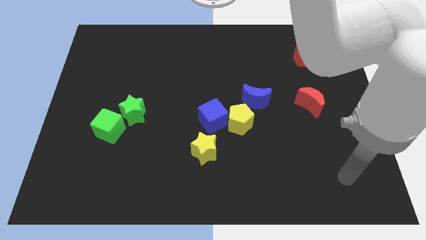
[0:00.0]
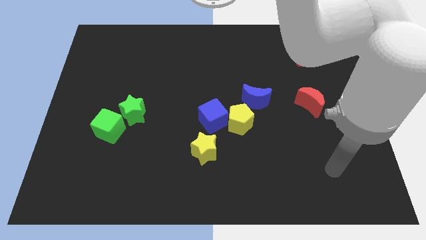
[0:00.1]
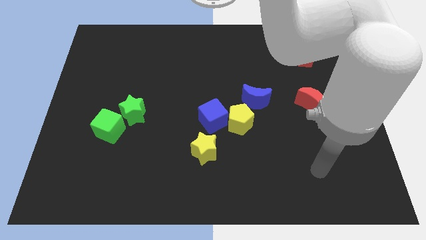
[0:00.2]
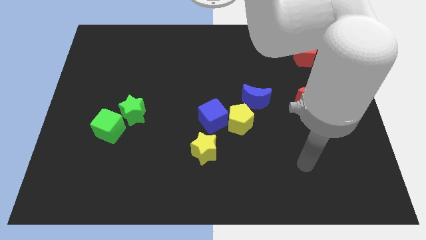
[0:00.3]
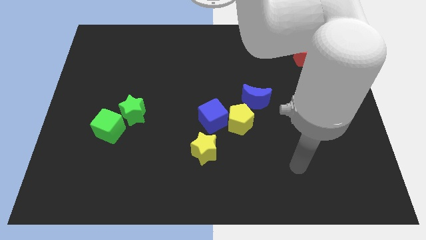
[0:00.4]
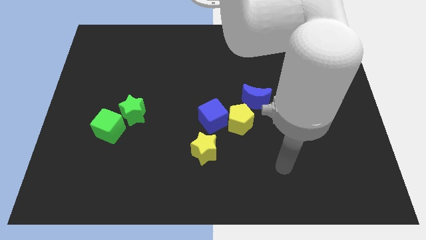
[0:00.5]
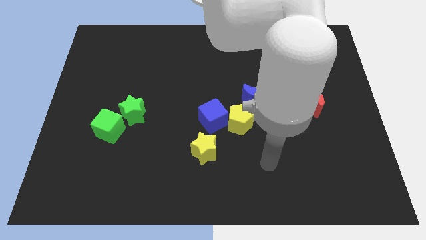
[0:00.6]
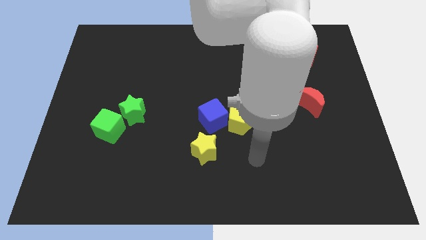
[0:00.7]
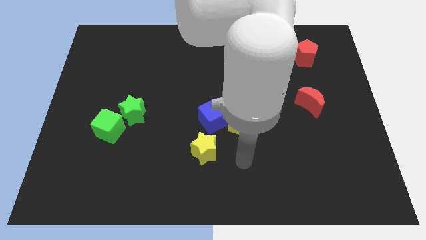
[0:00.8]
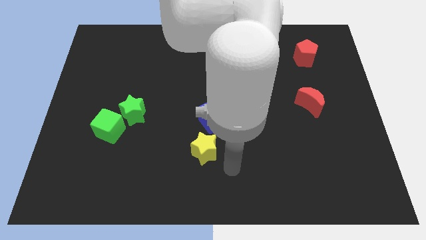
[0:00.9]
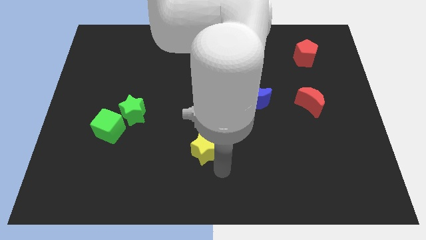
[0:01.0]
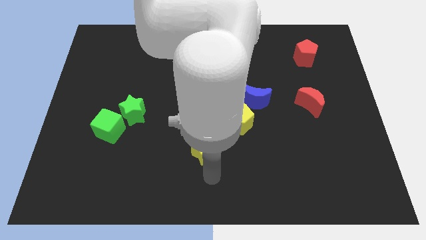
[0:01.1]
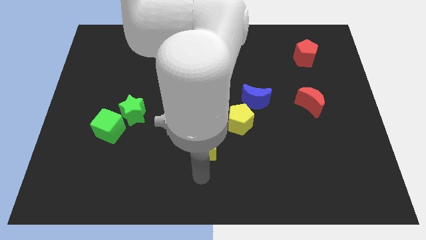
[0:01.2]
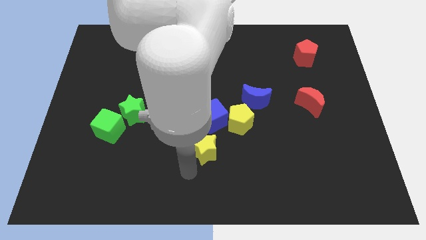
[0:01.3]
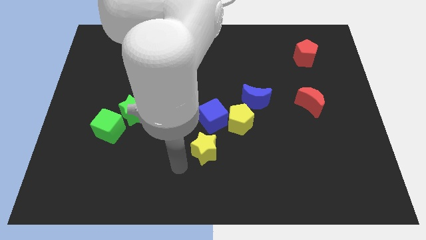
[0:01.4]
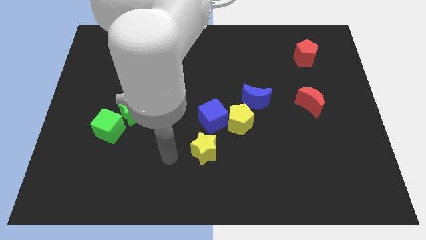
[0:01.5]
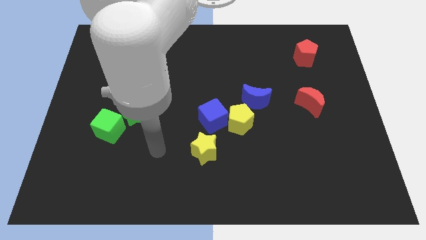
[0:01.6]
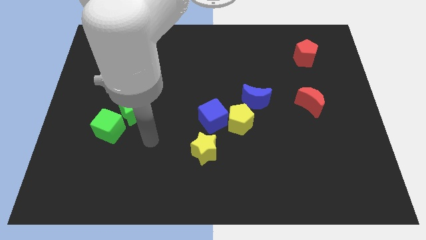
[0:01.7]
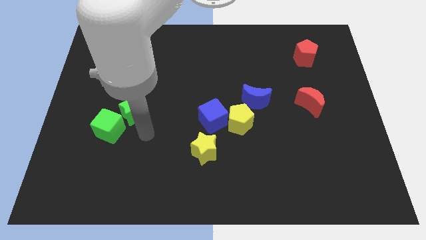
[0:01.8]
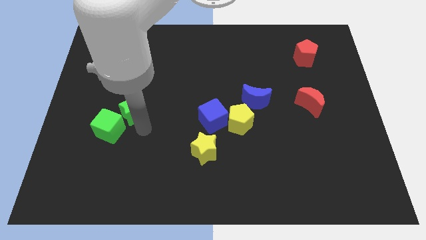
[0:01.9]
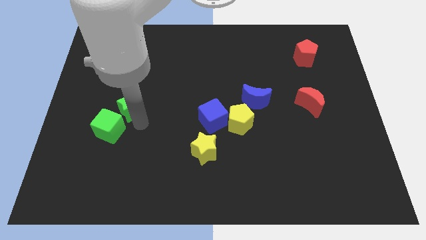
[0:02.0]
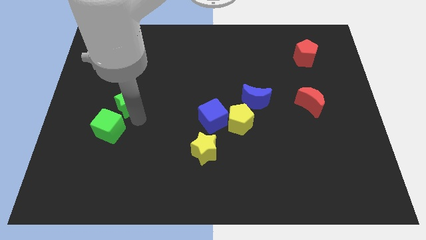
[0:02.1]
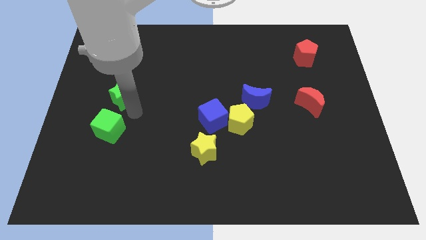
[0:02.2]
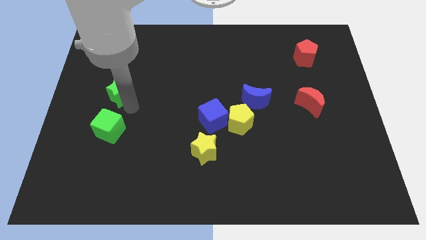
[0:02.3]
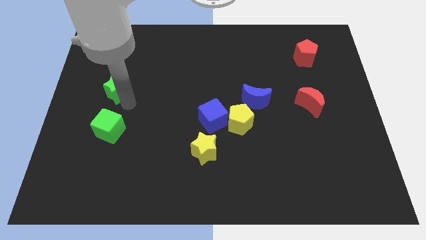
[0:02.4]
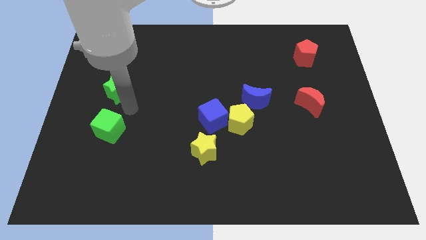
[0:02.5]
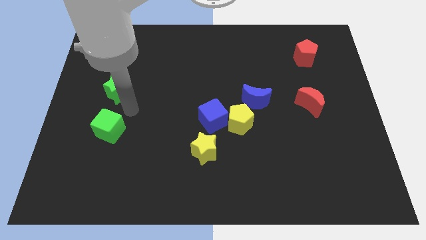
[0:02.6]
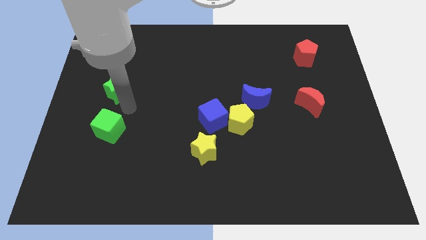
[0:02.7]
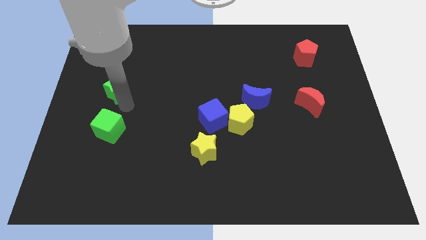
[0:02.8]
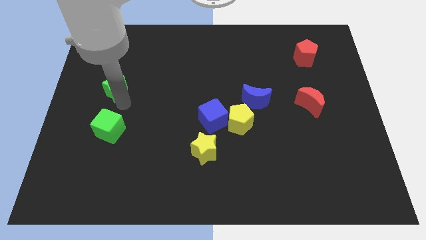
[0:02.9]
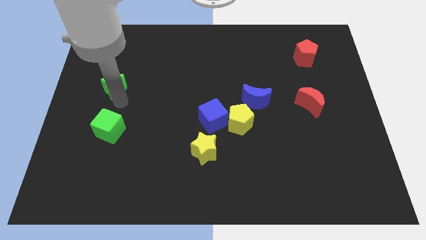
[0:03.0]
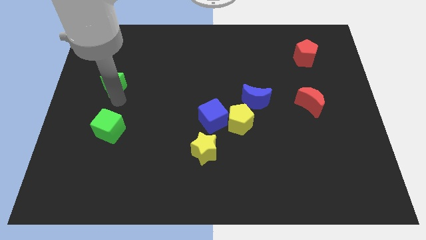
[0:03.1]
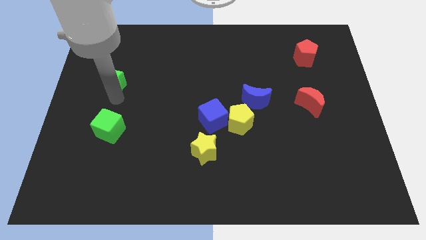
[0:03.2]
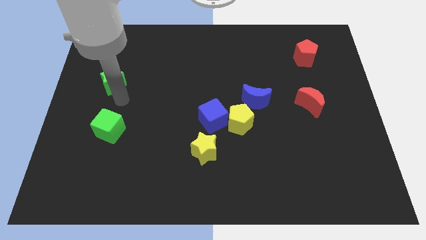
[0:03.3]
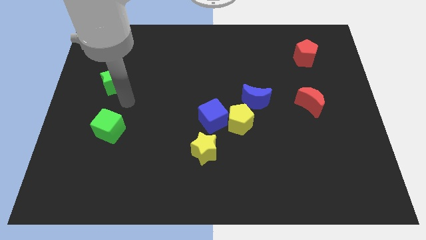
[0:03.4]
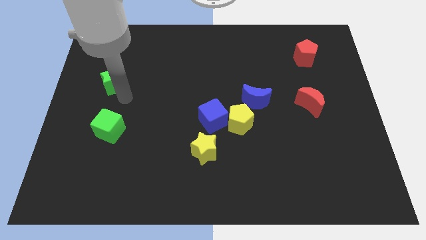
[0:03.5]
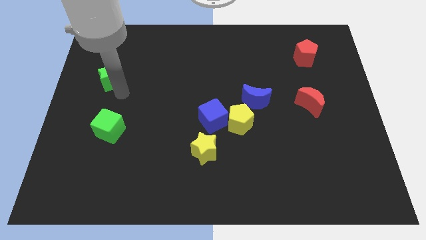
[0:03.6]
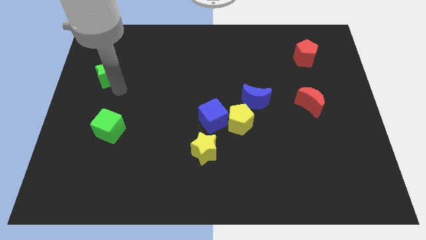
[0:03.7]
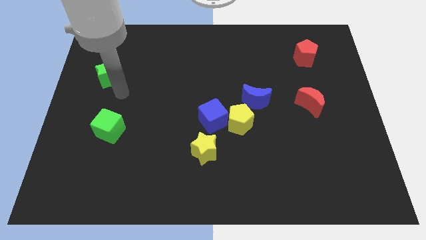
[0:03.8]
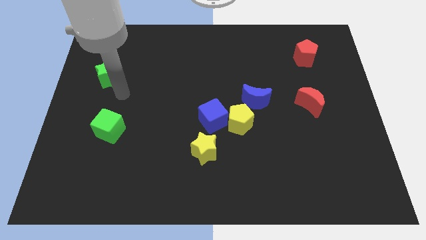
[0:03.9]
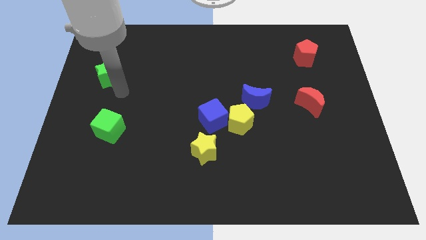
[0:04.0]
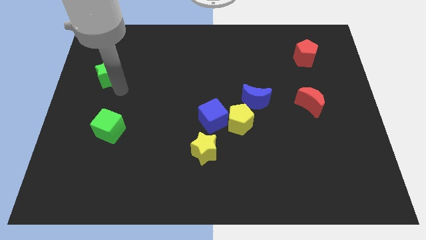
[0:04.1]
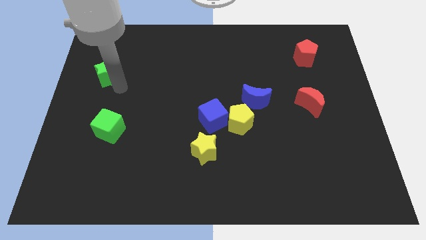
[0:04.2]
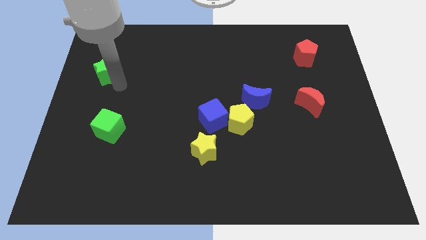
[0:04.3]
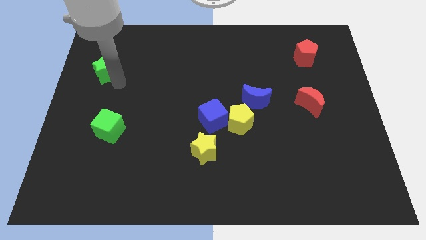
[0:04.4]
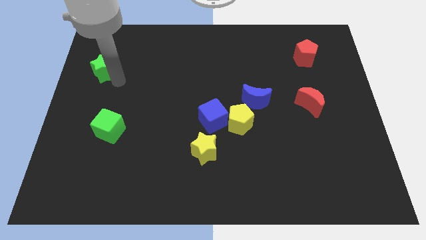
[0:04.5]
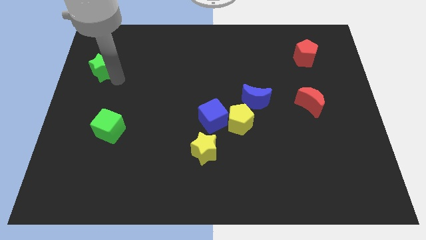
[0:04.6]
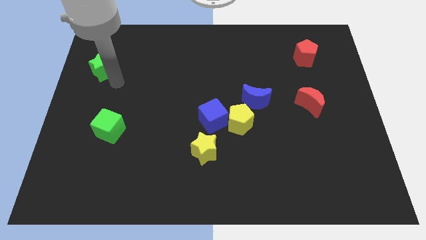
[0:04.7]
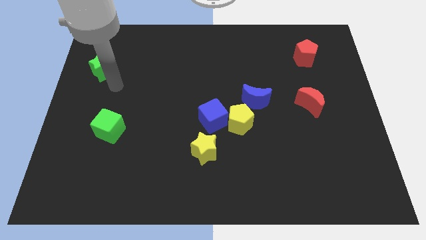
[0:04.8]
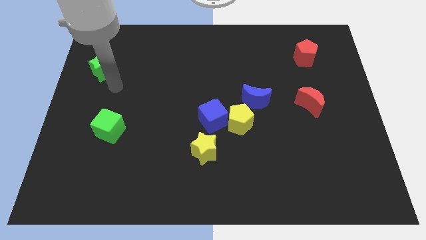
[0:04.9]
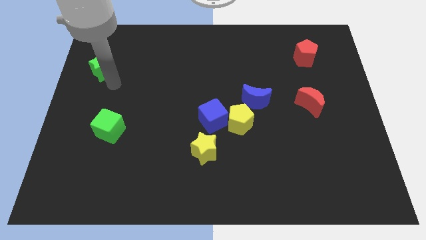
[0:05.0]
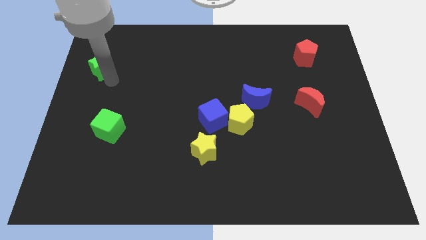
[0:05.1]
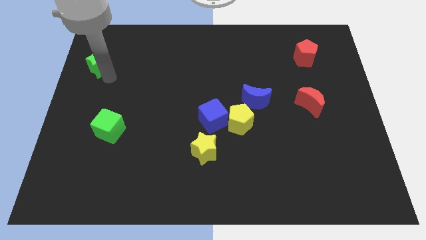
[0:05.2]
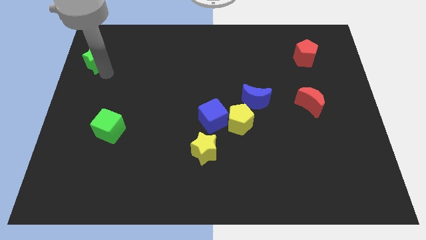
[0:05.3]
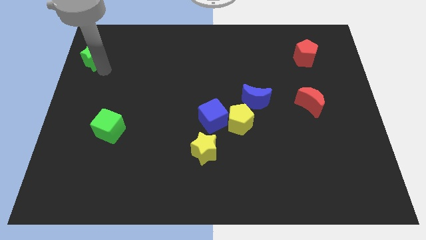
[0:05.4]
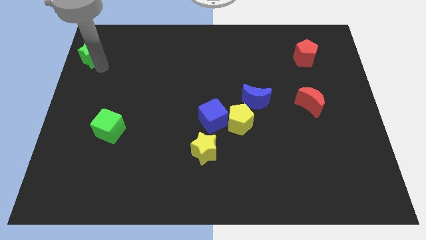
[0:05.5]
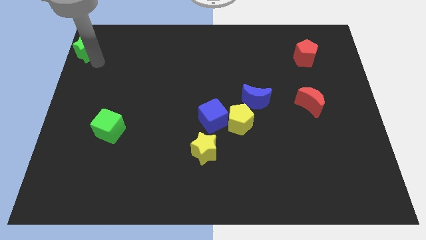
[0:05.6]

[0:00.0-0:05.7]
put the green star to the upper left corner
